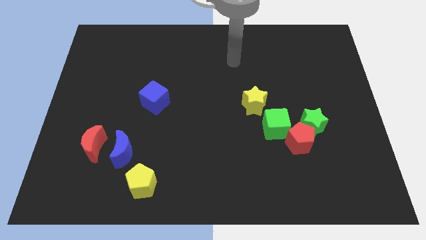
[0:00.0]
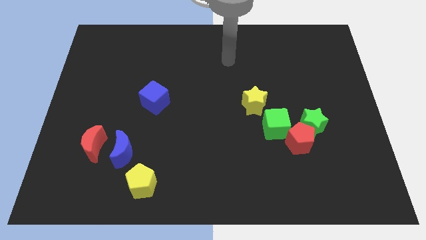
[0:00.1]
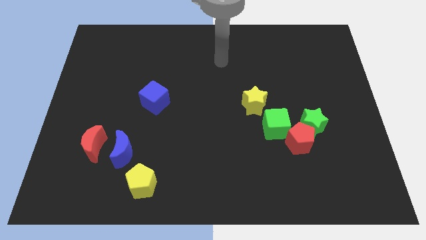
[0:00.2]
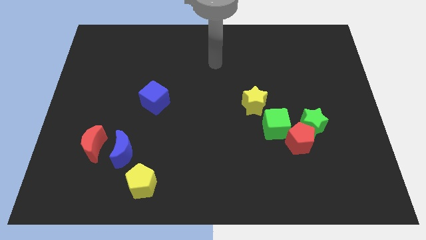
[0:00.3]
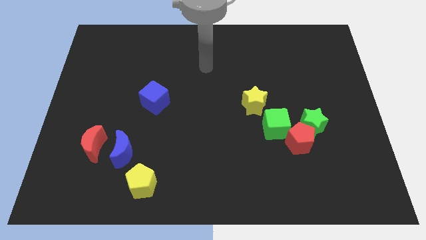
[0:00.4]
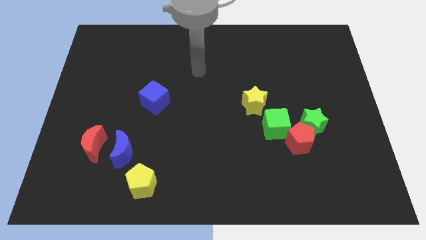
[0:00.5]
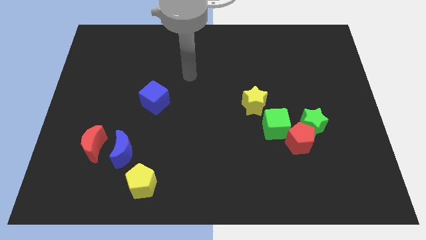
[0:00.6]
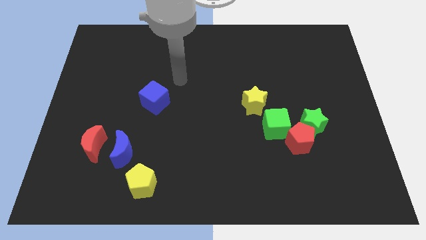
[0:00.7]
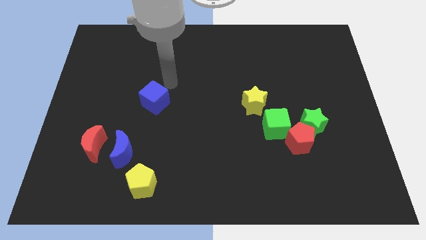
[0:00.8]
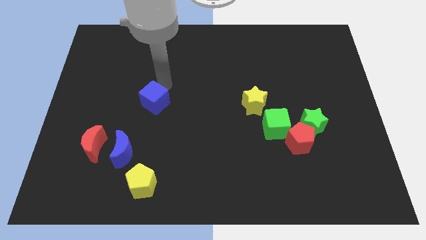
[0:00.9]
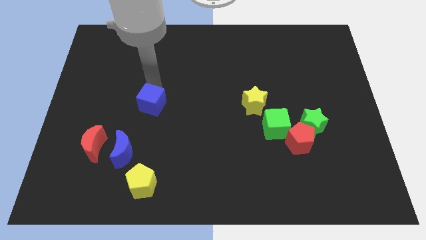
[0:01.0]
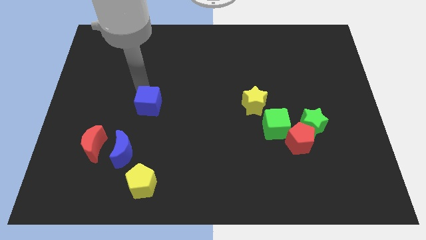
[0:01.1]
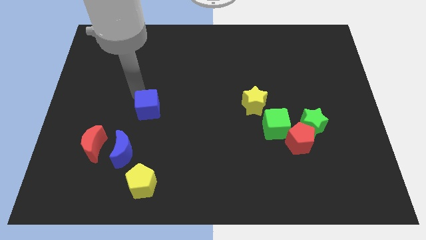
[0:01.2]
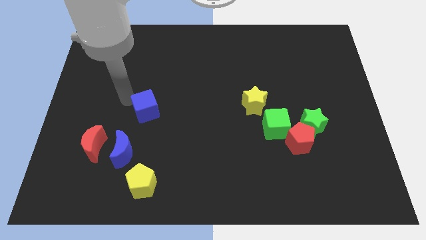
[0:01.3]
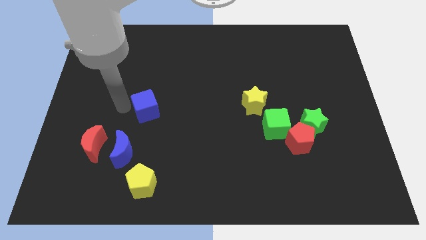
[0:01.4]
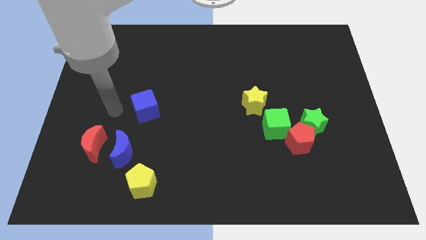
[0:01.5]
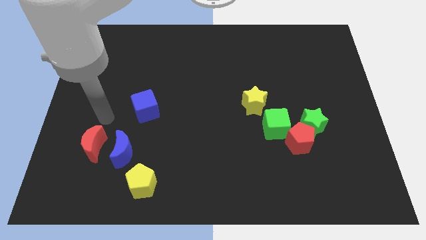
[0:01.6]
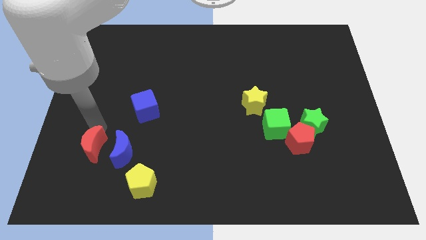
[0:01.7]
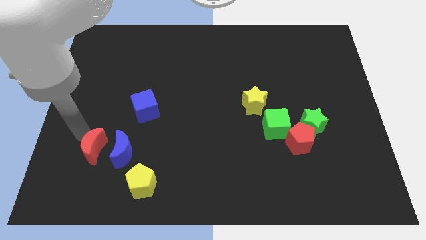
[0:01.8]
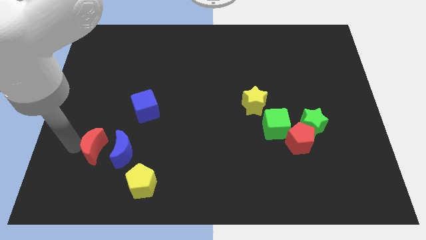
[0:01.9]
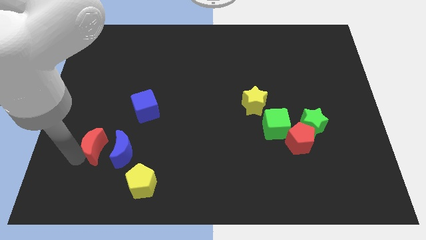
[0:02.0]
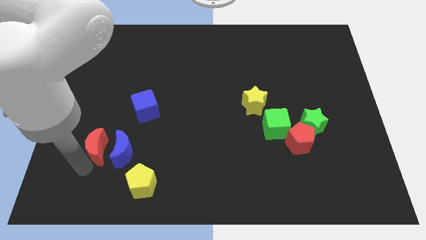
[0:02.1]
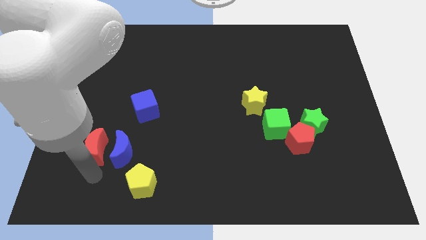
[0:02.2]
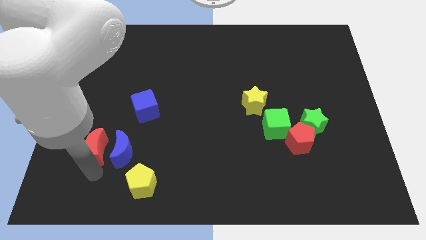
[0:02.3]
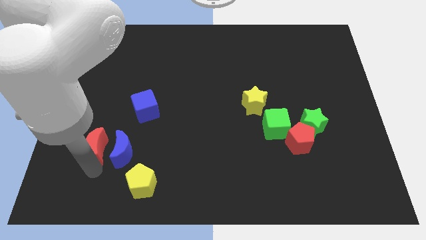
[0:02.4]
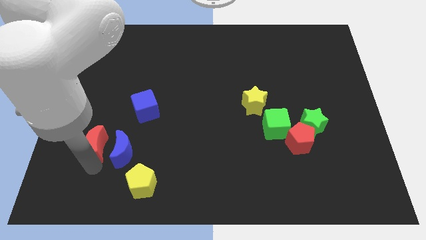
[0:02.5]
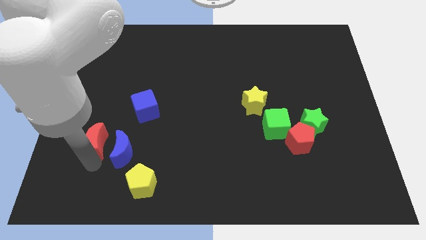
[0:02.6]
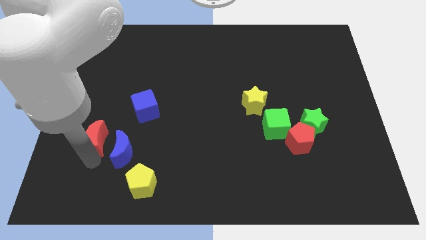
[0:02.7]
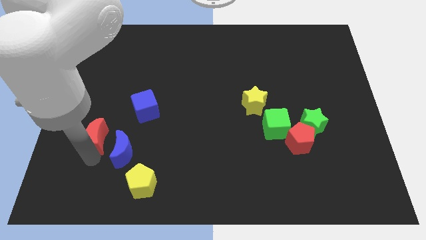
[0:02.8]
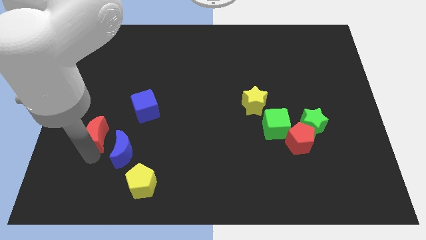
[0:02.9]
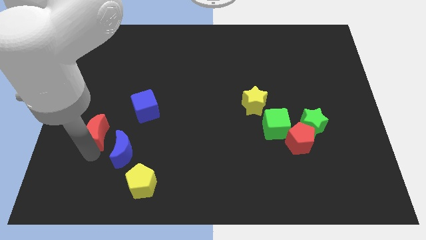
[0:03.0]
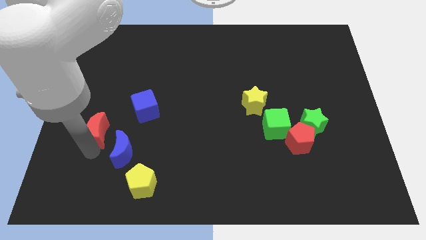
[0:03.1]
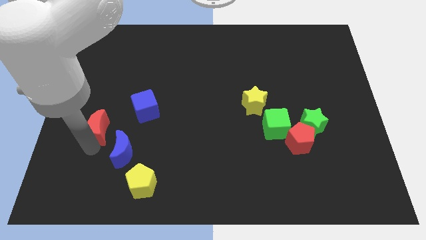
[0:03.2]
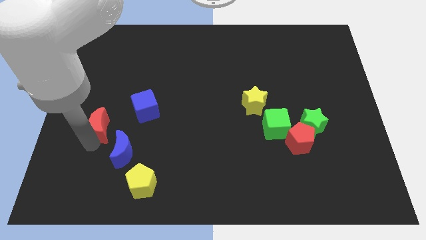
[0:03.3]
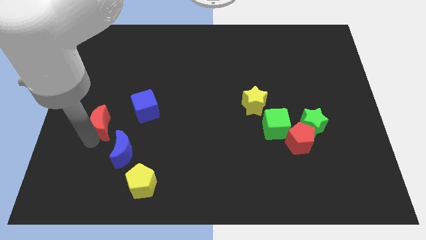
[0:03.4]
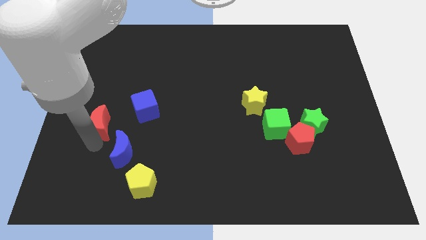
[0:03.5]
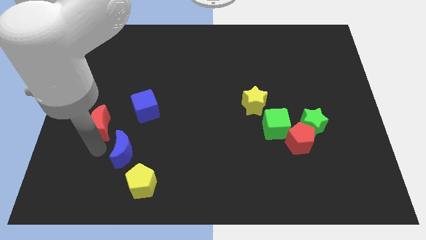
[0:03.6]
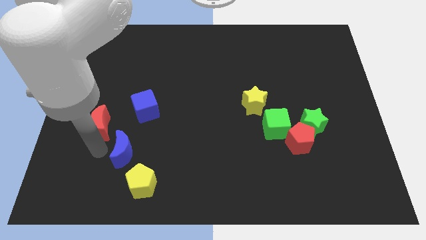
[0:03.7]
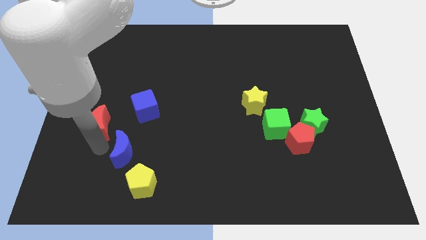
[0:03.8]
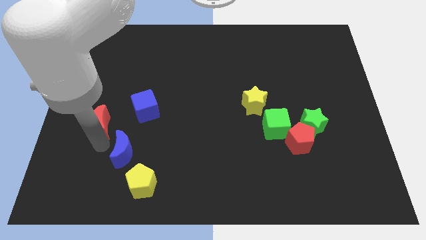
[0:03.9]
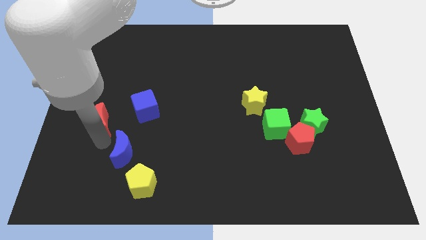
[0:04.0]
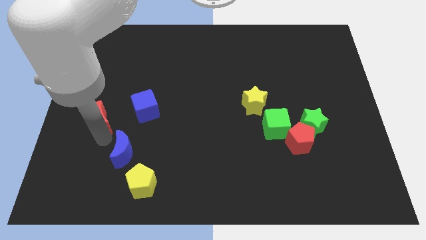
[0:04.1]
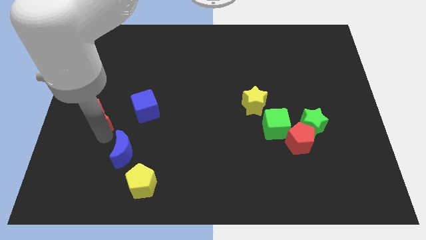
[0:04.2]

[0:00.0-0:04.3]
push the red moon upwards somewhat

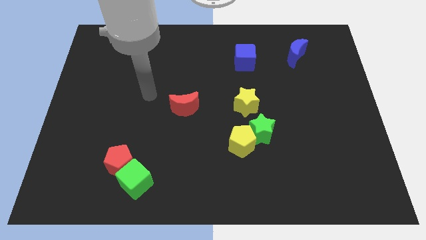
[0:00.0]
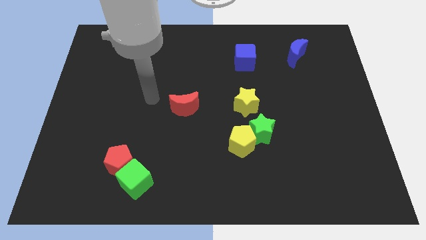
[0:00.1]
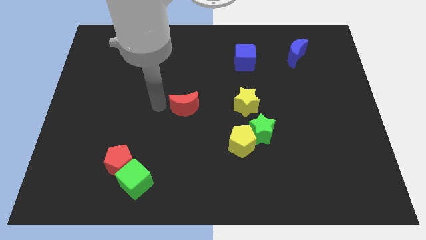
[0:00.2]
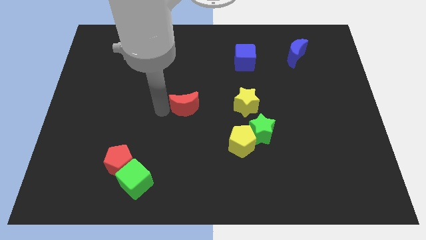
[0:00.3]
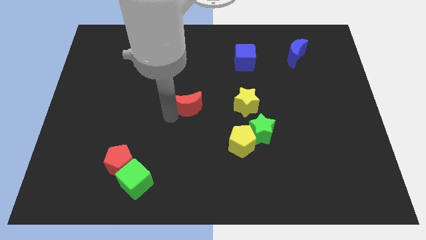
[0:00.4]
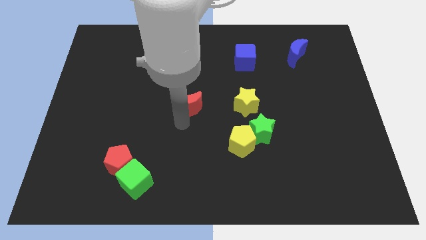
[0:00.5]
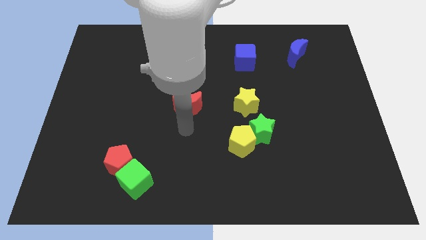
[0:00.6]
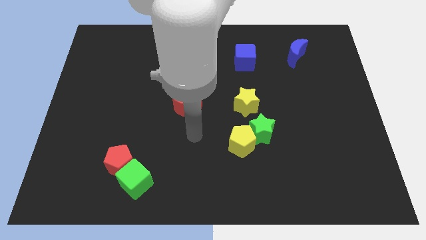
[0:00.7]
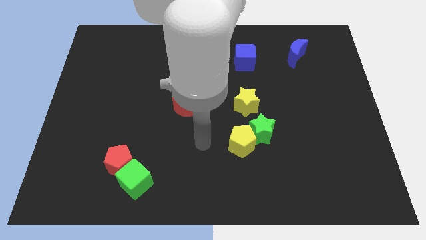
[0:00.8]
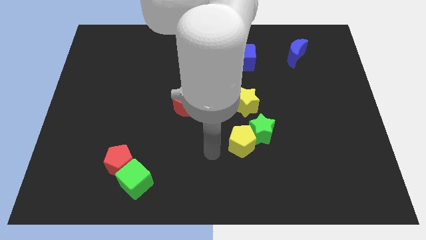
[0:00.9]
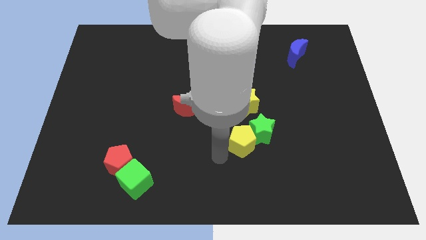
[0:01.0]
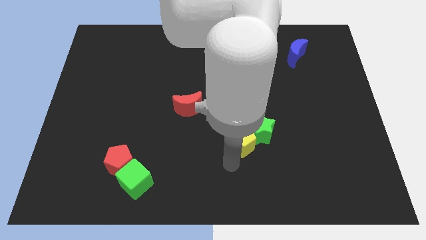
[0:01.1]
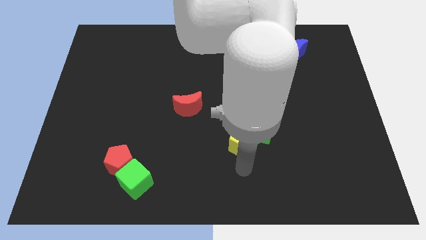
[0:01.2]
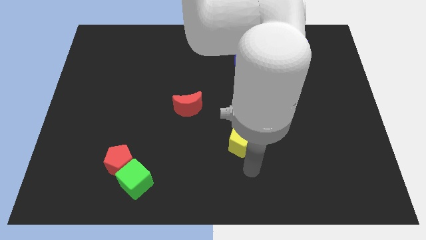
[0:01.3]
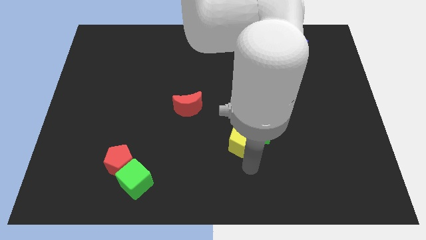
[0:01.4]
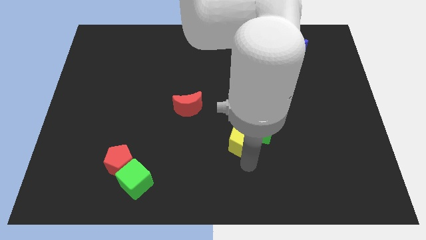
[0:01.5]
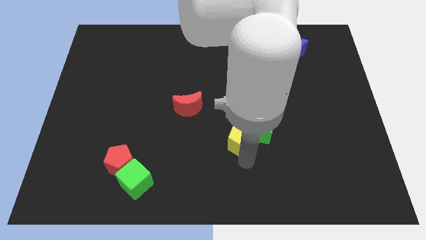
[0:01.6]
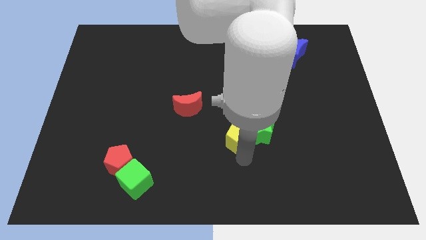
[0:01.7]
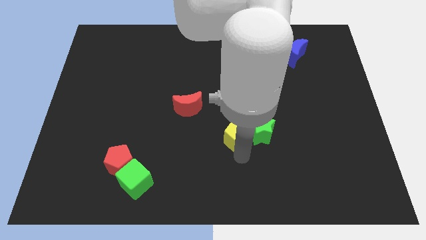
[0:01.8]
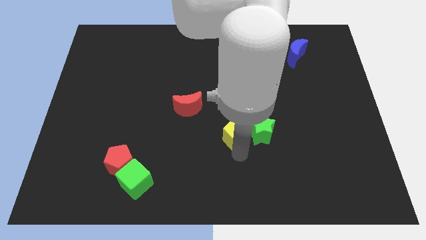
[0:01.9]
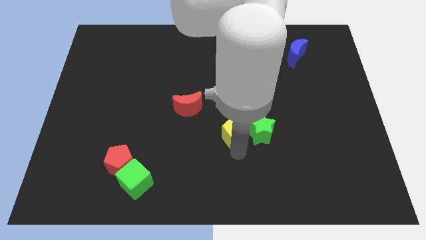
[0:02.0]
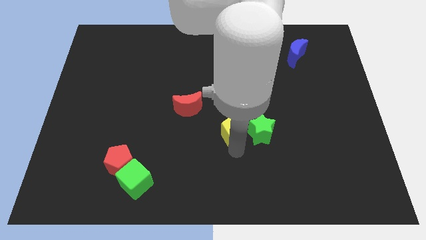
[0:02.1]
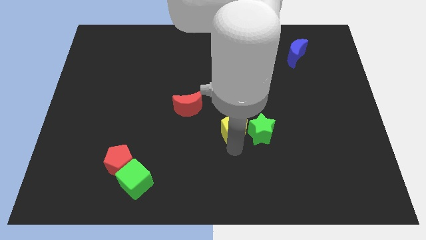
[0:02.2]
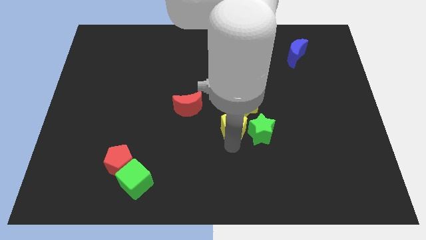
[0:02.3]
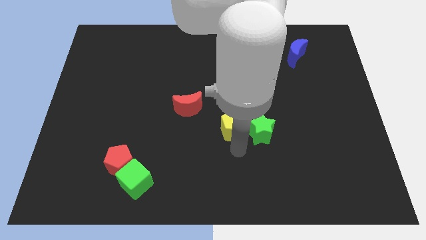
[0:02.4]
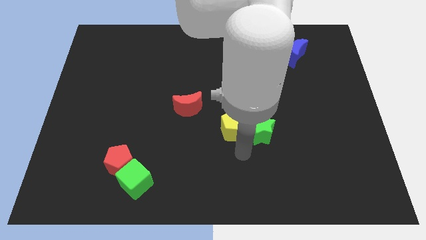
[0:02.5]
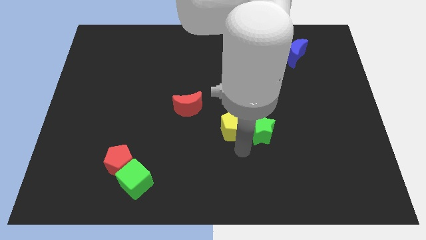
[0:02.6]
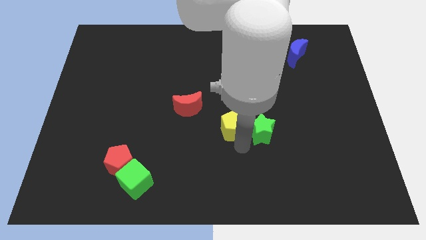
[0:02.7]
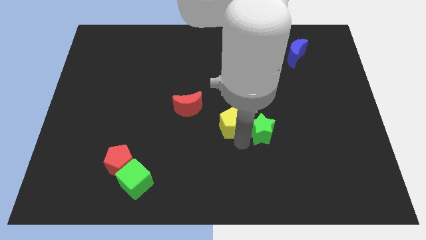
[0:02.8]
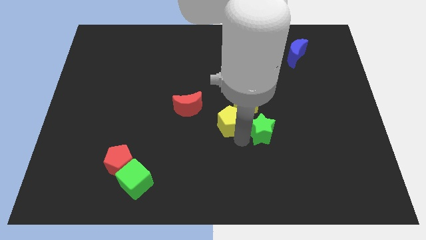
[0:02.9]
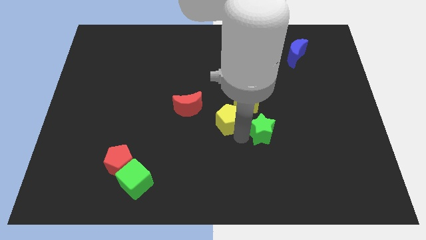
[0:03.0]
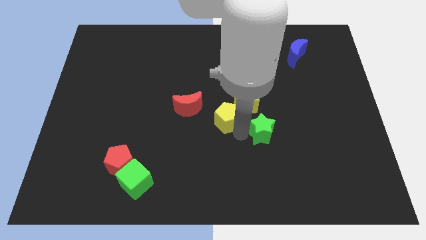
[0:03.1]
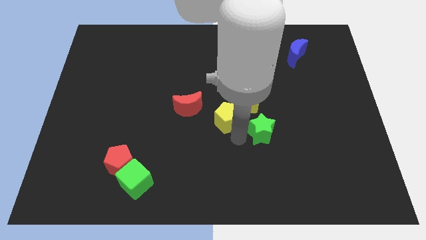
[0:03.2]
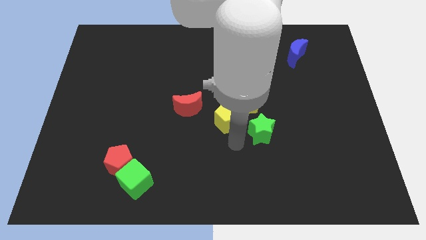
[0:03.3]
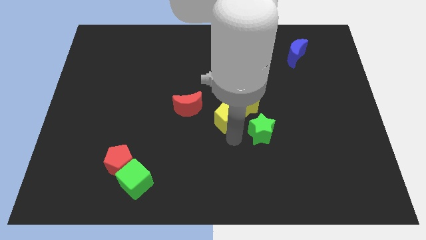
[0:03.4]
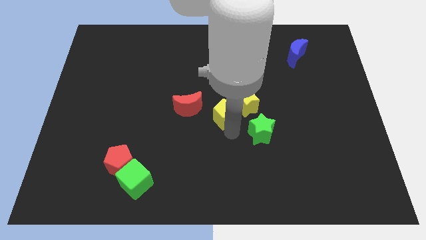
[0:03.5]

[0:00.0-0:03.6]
move the yellow pentagon up slightly
